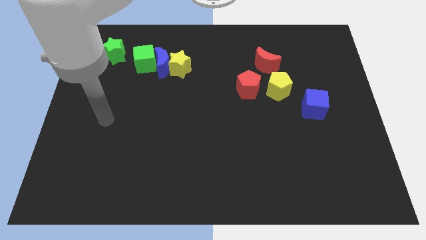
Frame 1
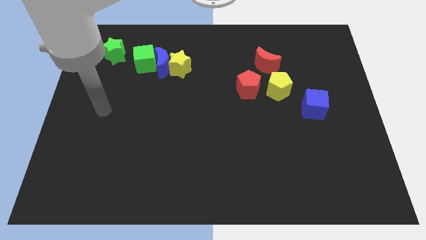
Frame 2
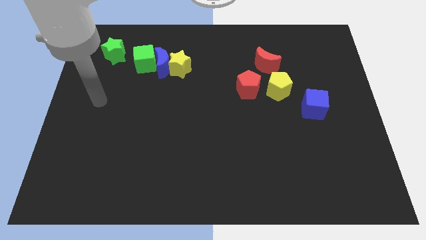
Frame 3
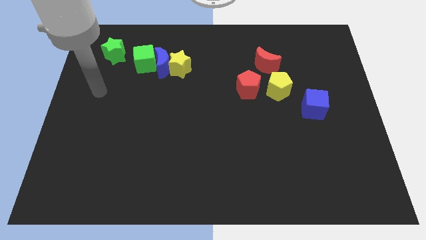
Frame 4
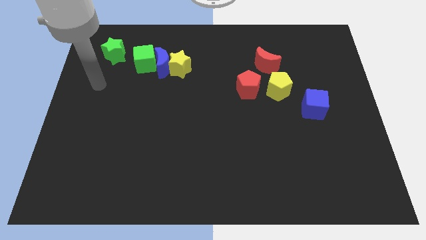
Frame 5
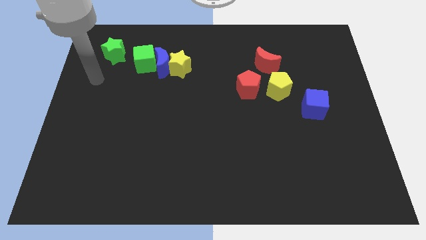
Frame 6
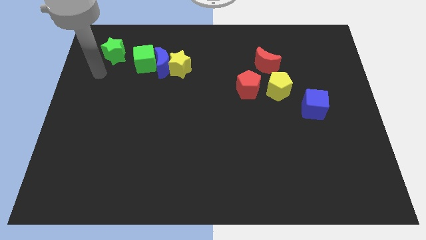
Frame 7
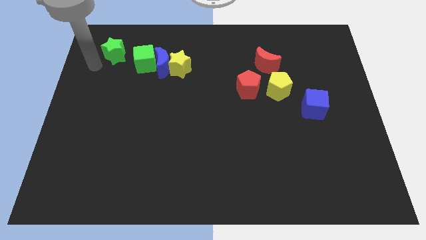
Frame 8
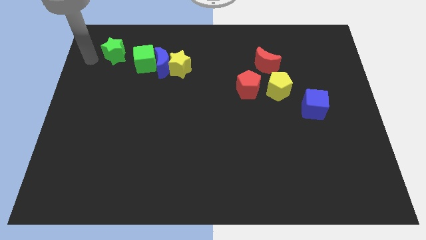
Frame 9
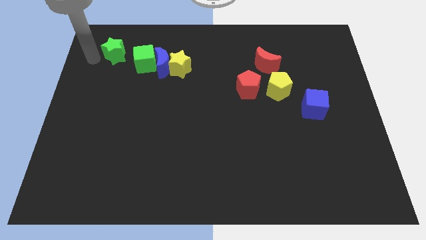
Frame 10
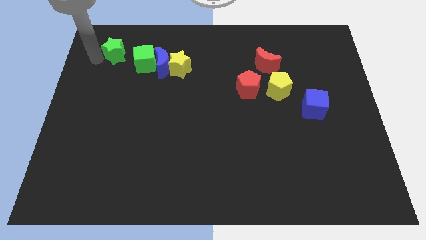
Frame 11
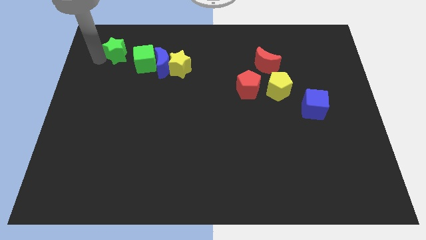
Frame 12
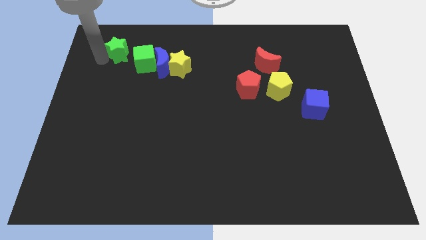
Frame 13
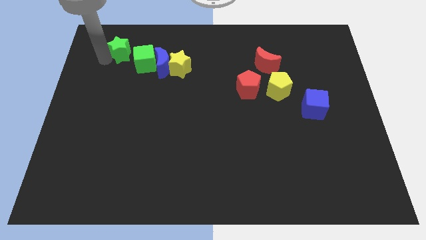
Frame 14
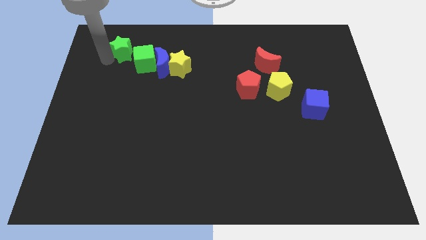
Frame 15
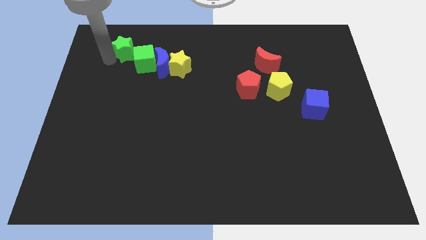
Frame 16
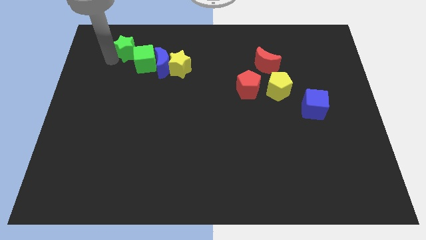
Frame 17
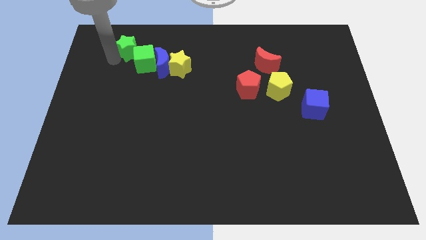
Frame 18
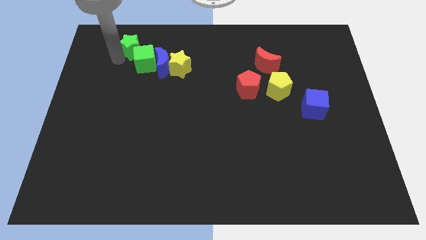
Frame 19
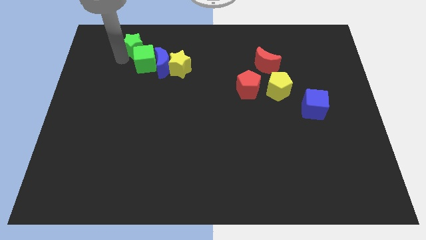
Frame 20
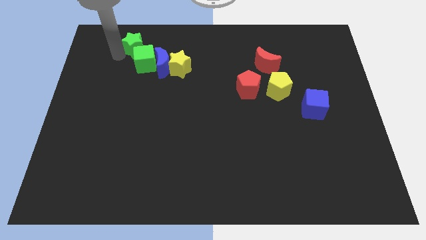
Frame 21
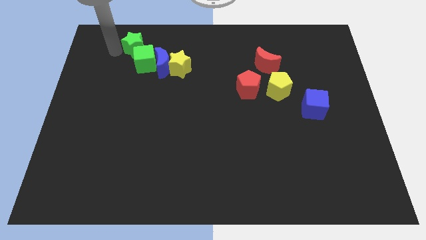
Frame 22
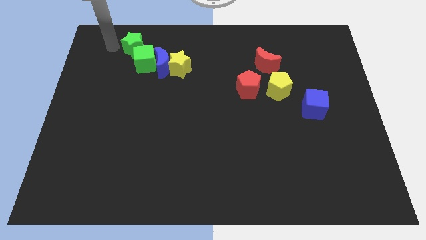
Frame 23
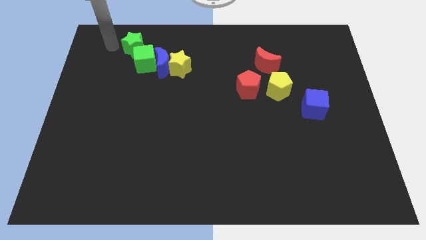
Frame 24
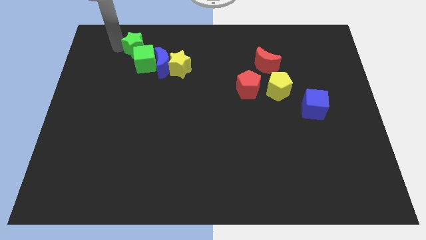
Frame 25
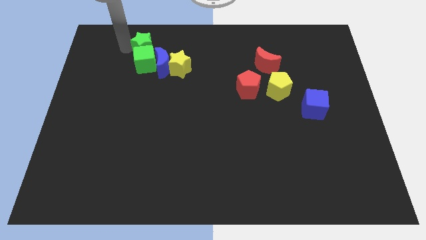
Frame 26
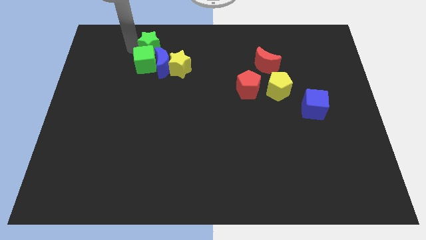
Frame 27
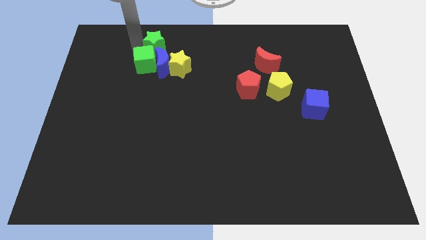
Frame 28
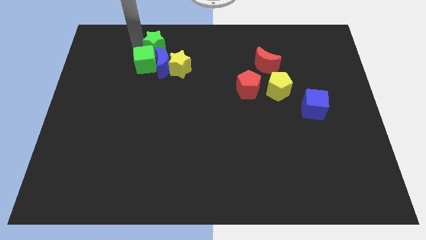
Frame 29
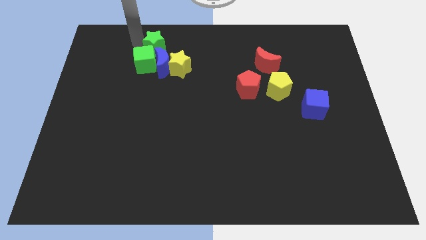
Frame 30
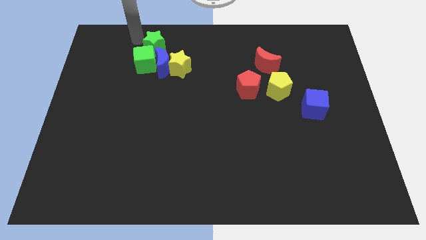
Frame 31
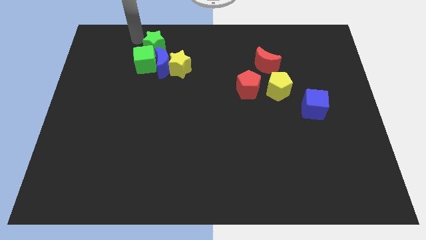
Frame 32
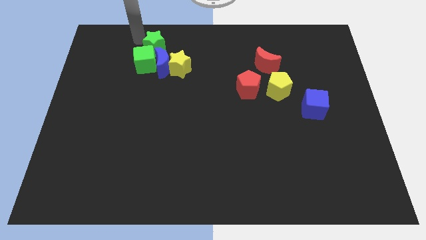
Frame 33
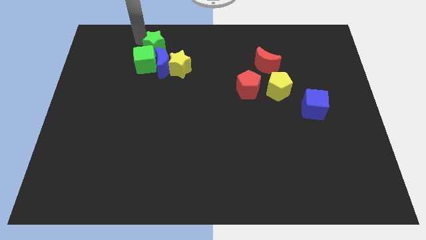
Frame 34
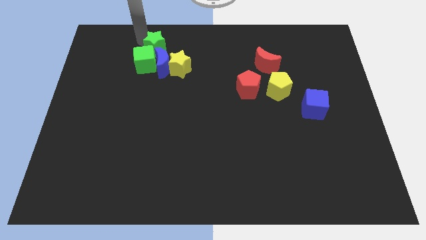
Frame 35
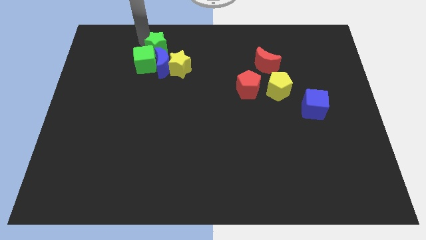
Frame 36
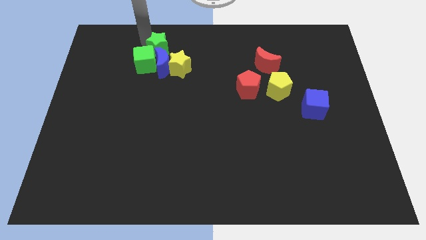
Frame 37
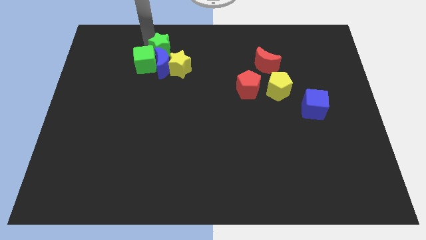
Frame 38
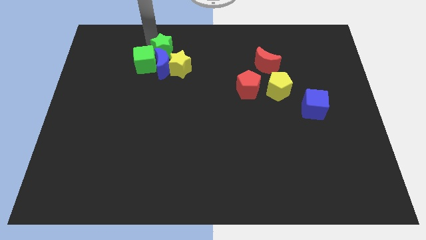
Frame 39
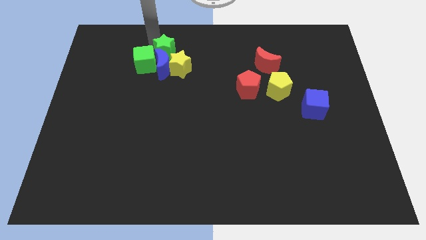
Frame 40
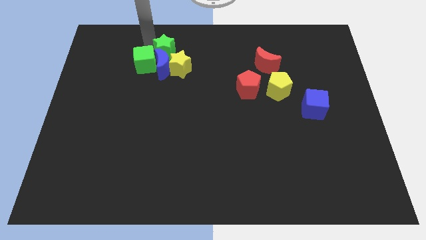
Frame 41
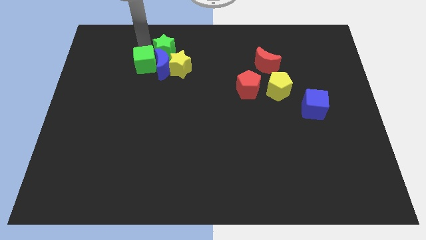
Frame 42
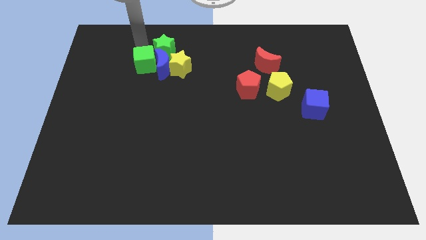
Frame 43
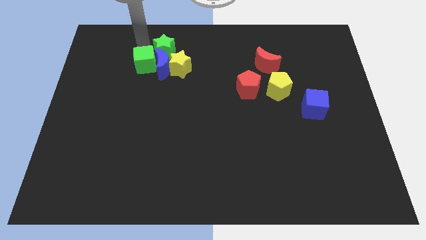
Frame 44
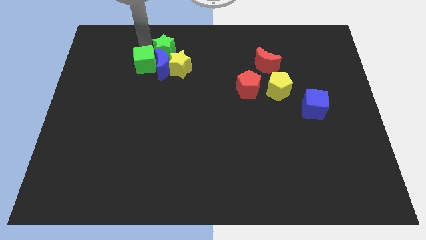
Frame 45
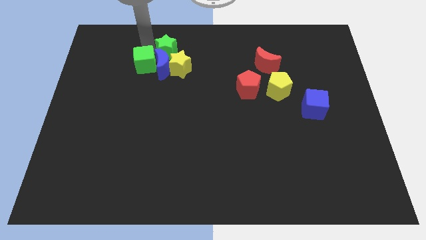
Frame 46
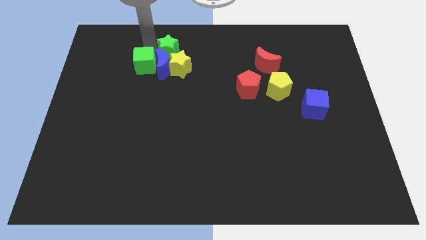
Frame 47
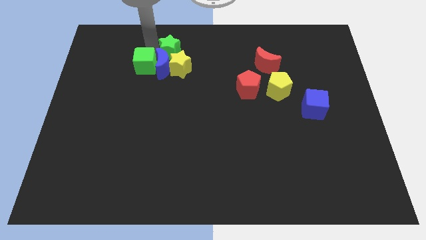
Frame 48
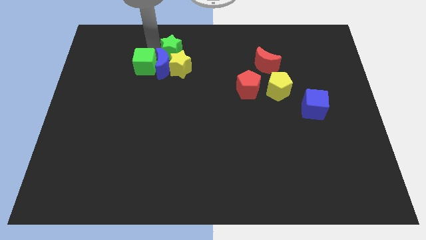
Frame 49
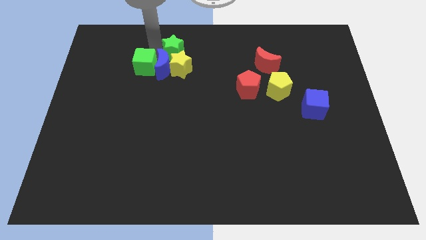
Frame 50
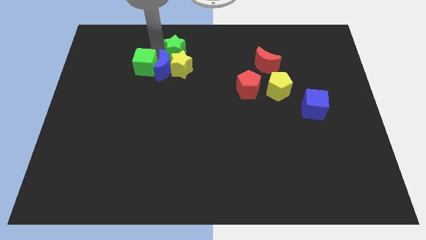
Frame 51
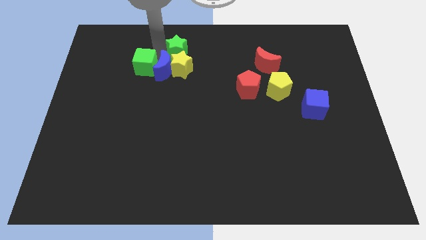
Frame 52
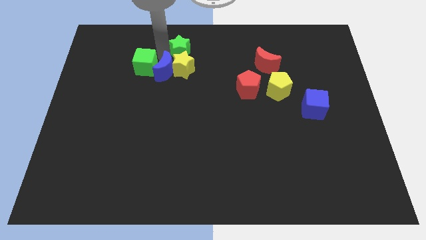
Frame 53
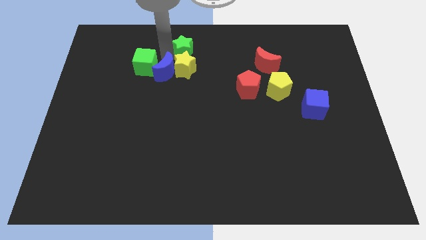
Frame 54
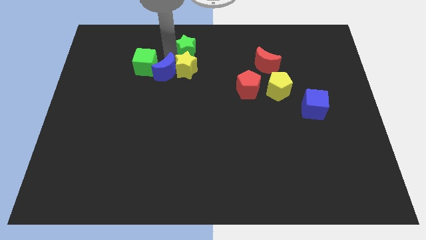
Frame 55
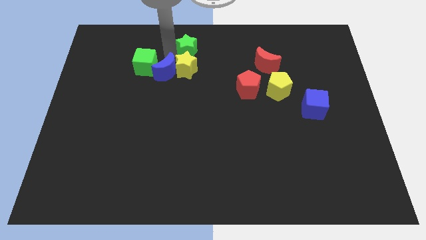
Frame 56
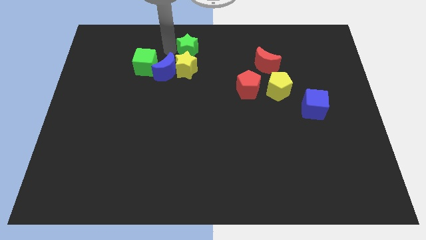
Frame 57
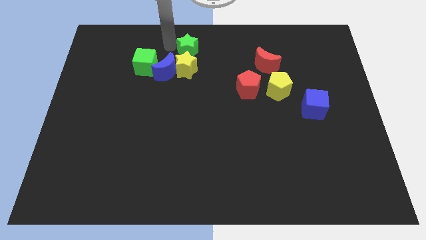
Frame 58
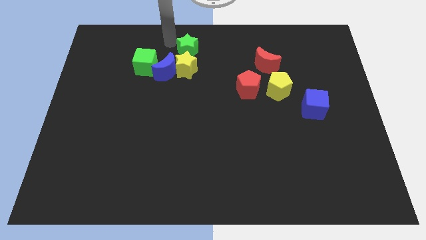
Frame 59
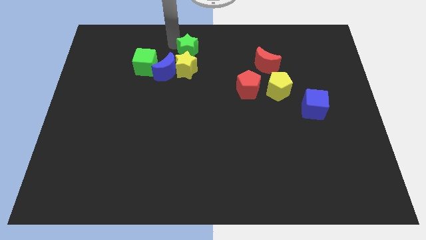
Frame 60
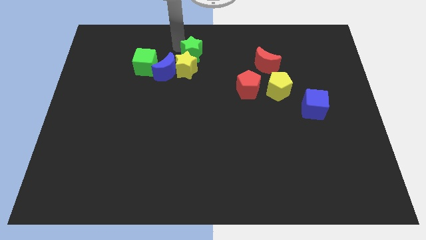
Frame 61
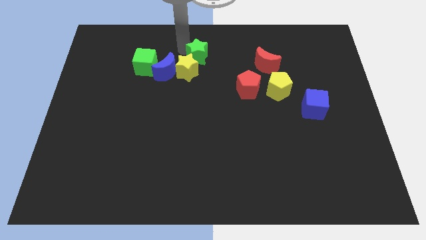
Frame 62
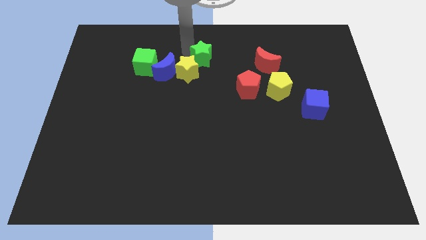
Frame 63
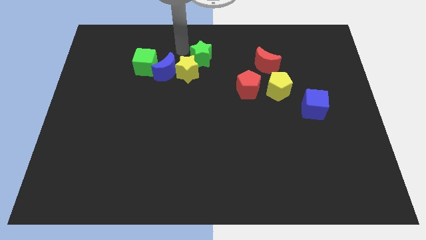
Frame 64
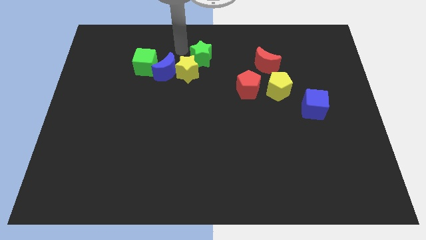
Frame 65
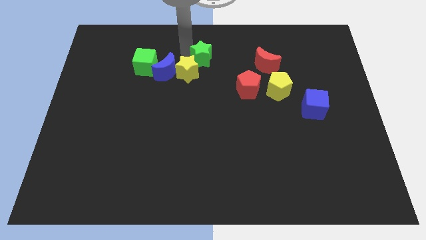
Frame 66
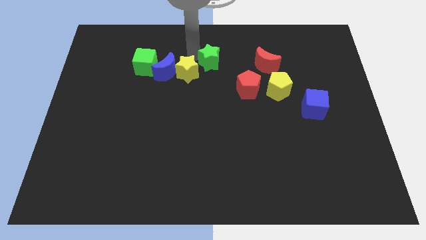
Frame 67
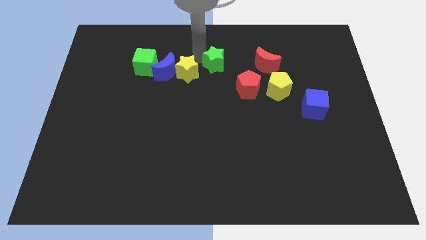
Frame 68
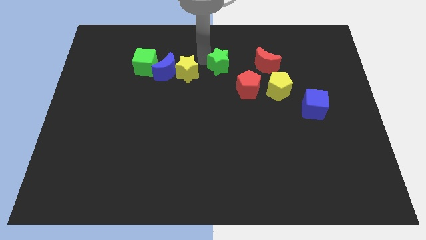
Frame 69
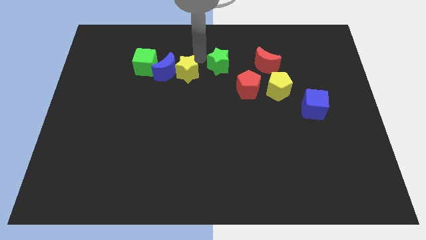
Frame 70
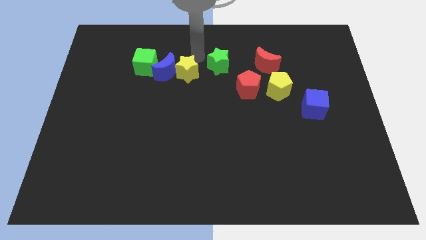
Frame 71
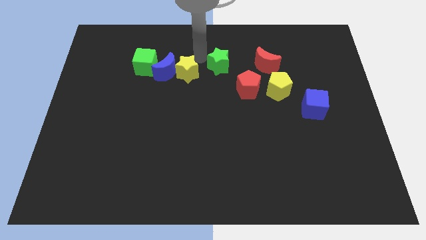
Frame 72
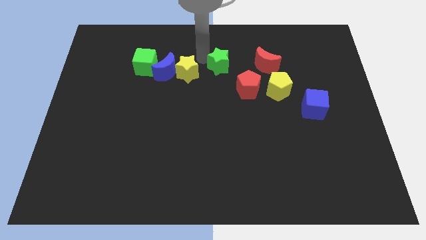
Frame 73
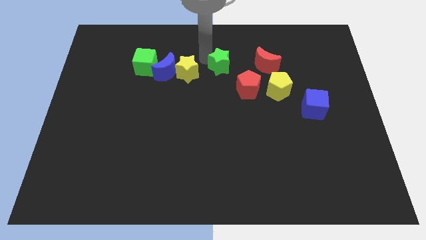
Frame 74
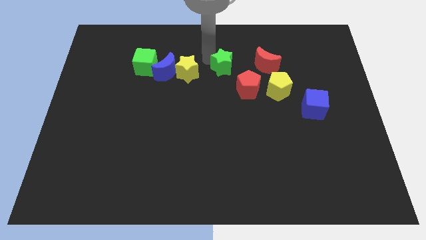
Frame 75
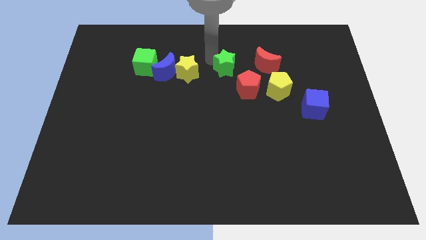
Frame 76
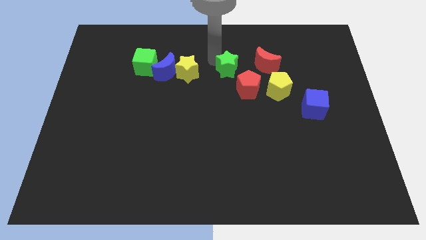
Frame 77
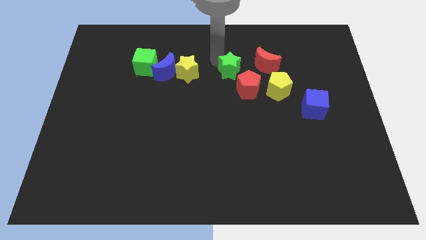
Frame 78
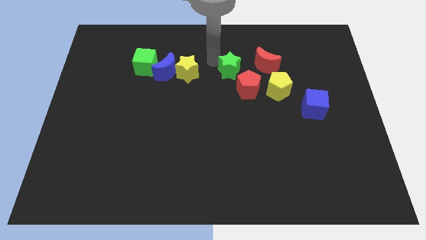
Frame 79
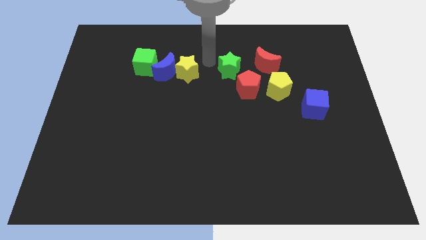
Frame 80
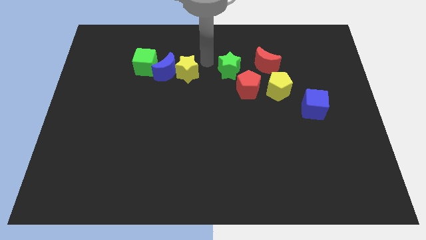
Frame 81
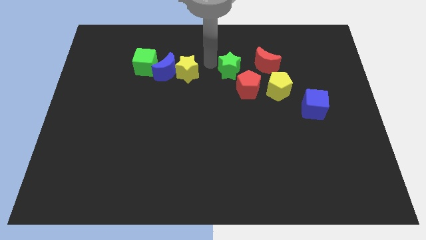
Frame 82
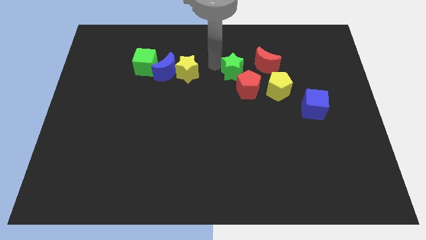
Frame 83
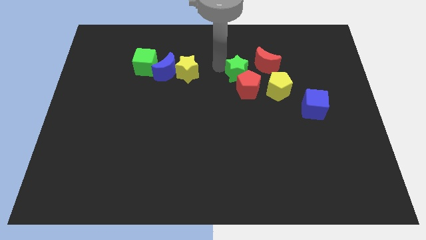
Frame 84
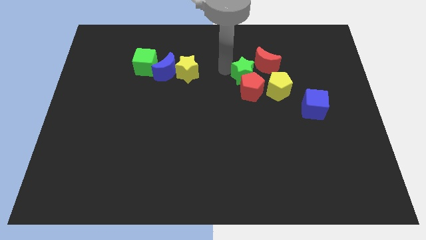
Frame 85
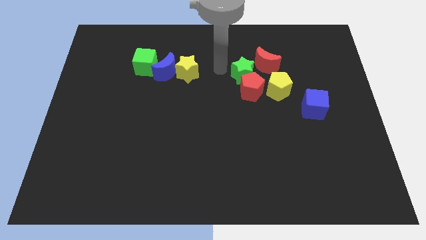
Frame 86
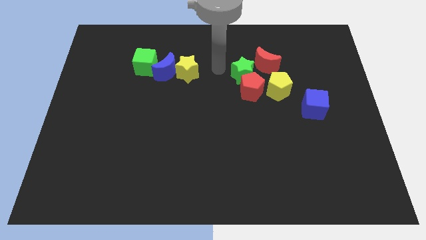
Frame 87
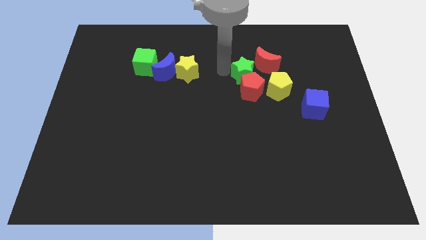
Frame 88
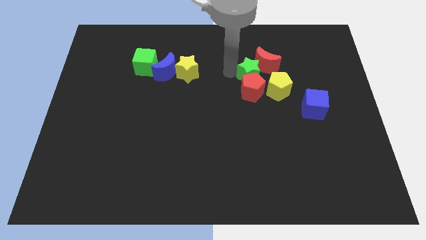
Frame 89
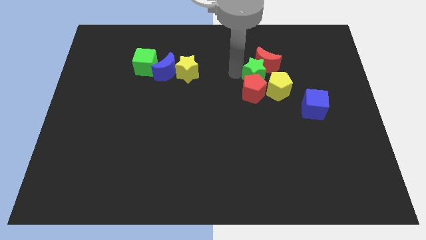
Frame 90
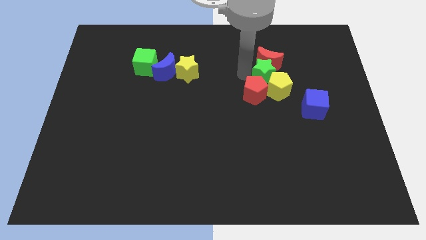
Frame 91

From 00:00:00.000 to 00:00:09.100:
slide the green star to the bottom right side of the red moon
